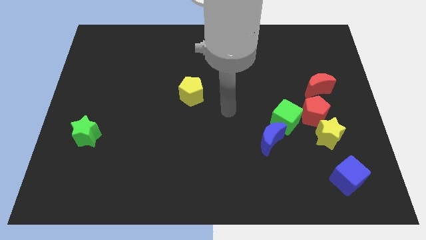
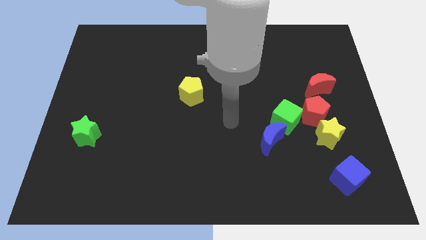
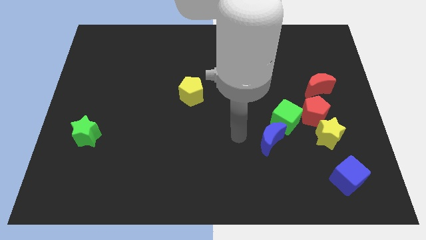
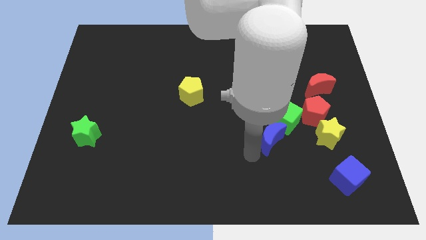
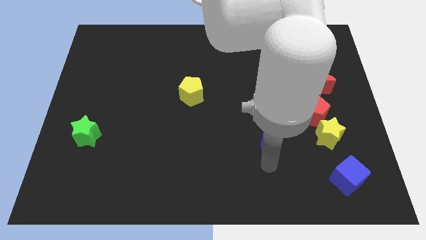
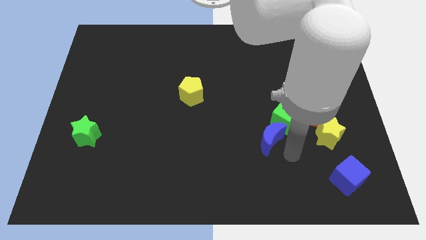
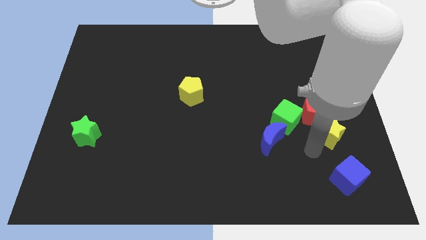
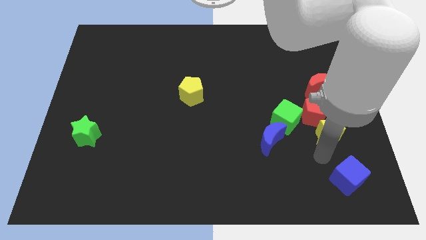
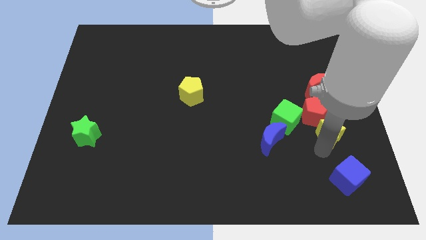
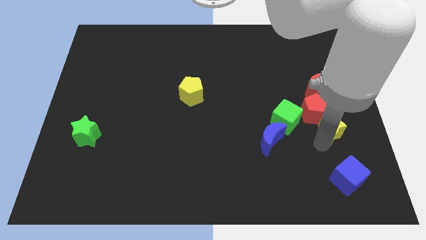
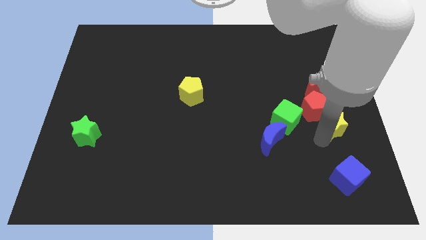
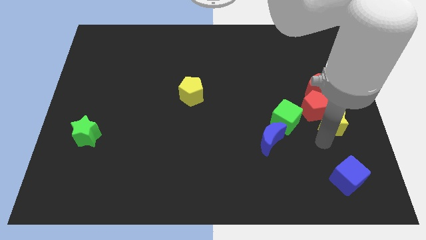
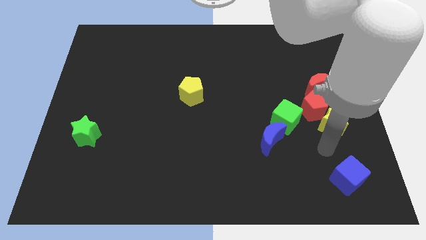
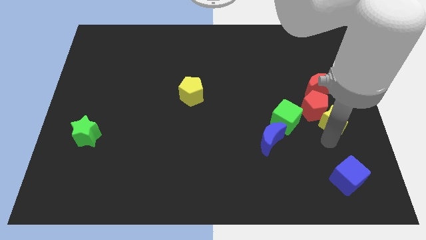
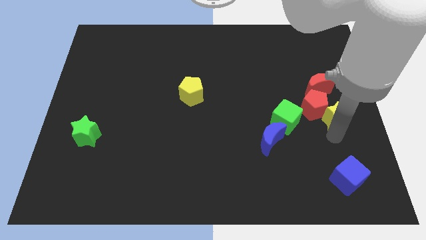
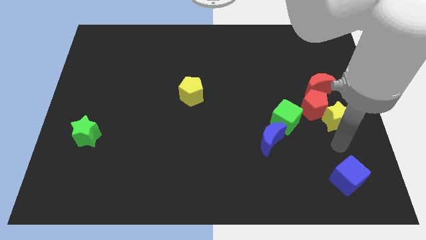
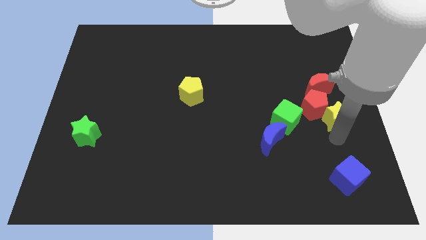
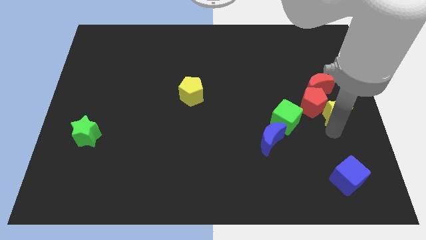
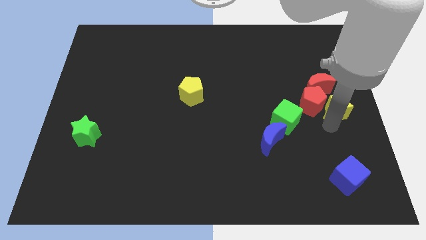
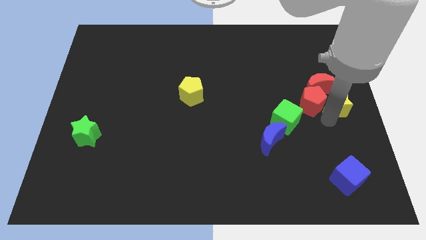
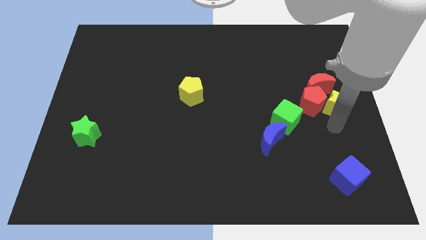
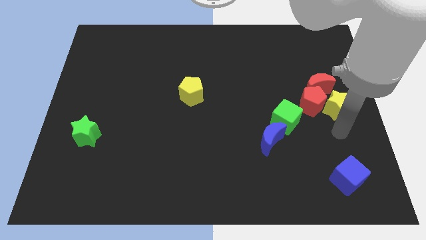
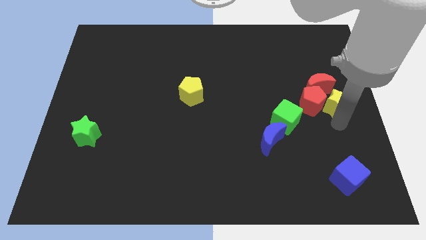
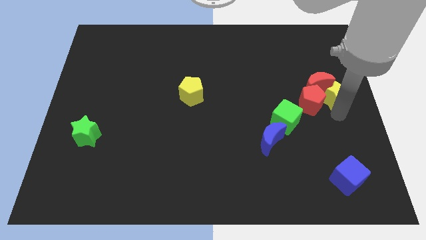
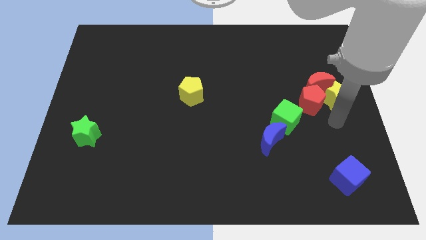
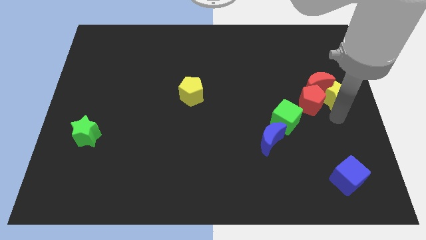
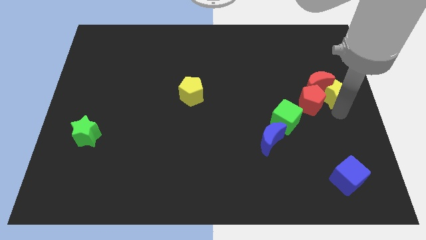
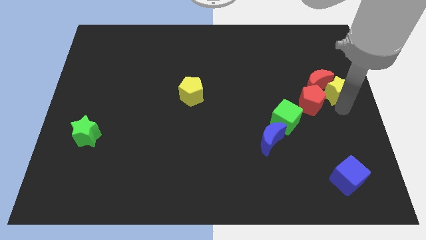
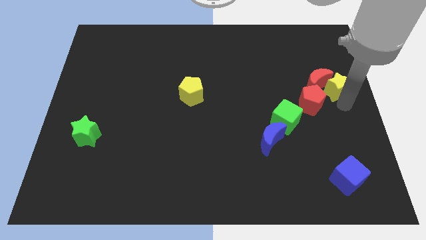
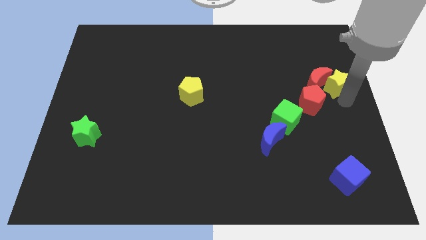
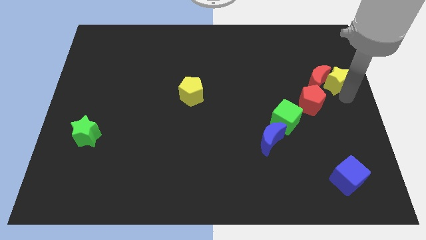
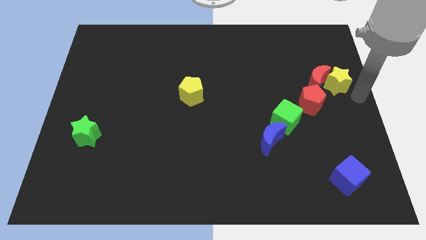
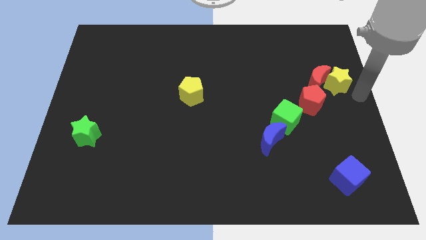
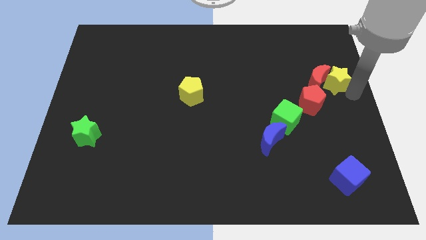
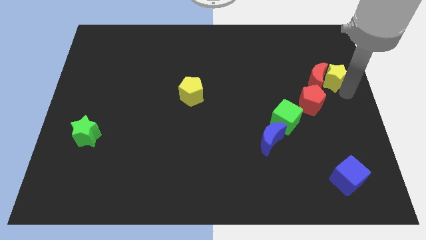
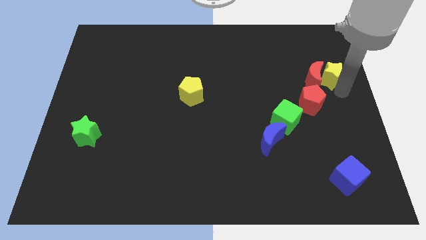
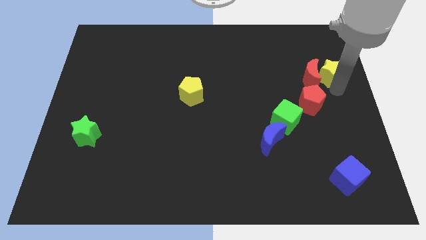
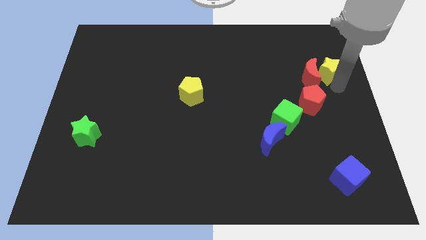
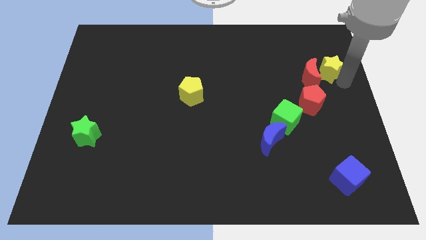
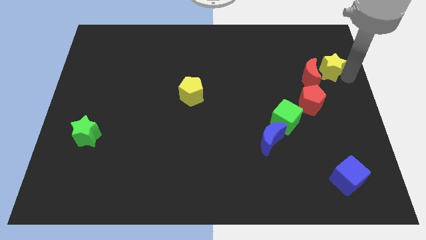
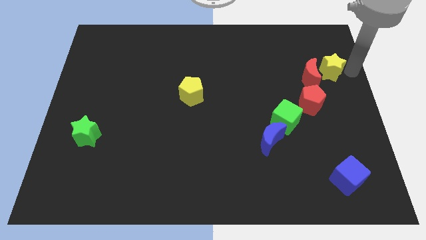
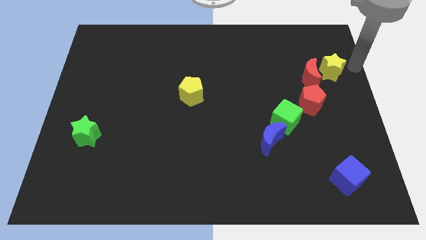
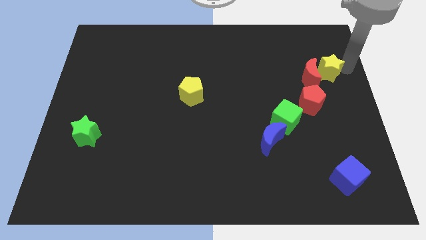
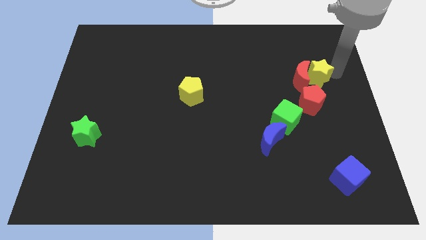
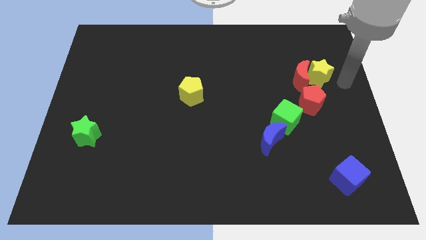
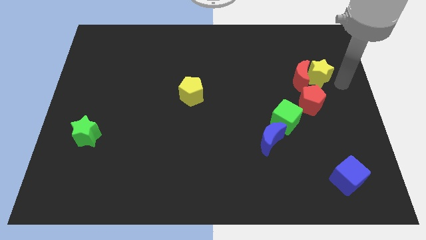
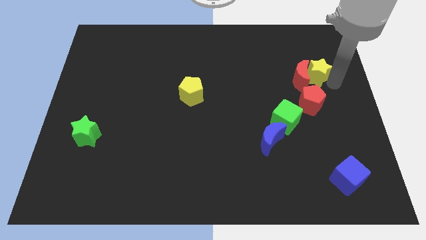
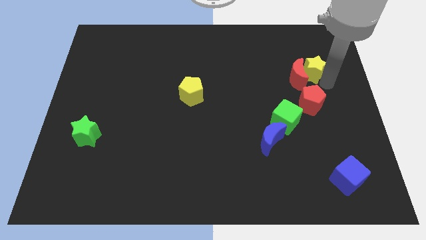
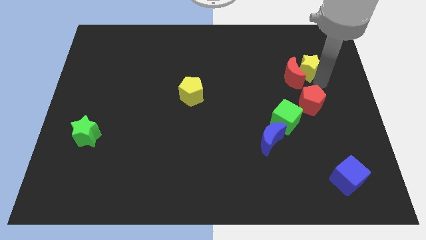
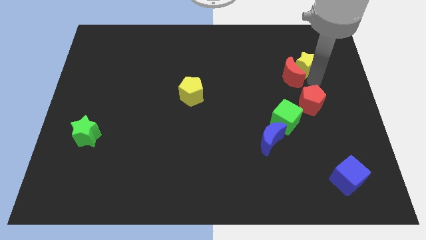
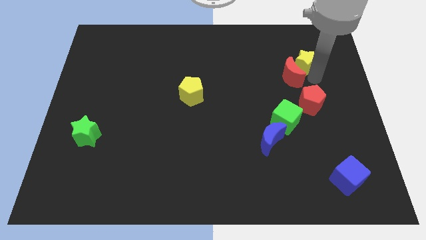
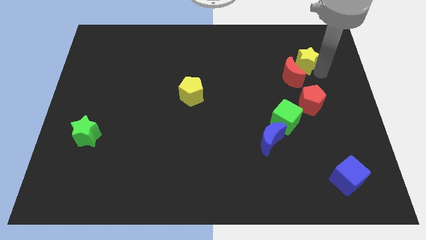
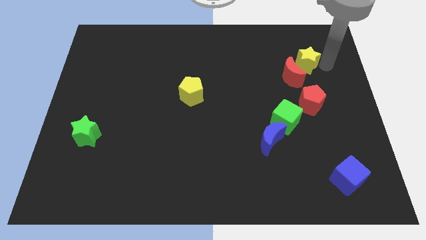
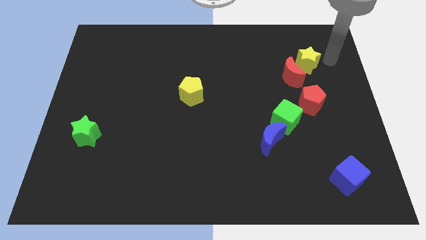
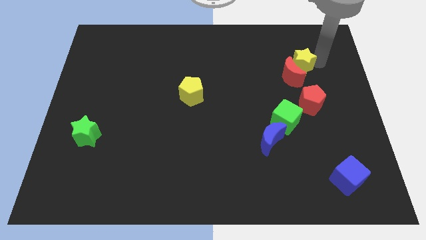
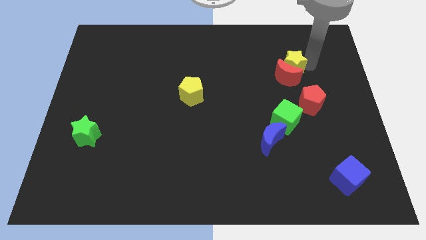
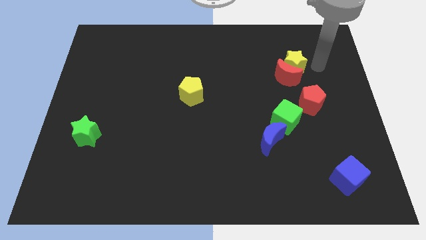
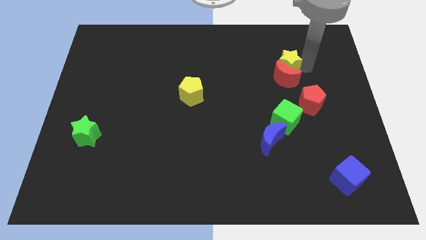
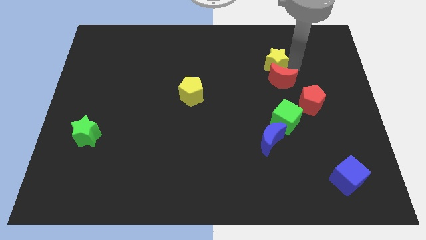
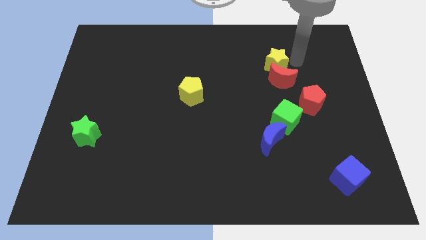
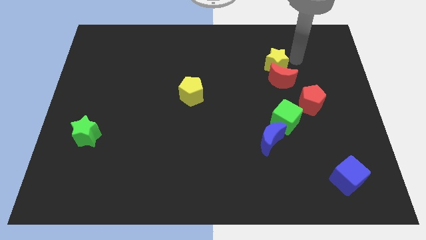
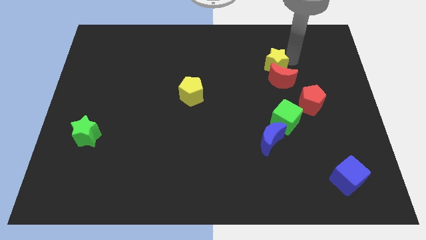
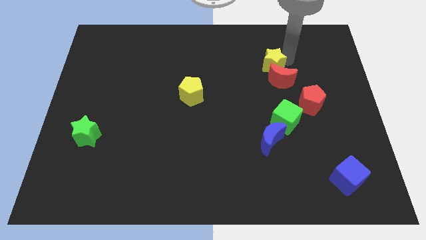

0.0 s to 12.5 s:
move the yellow star up and left diagonally

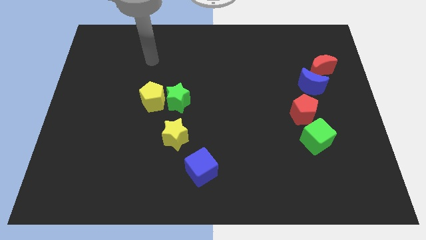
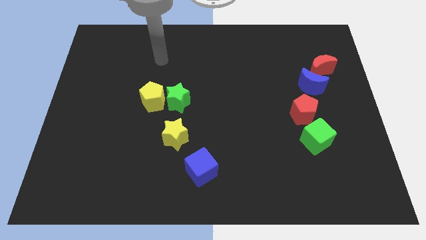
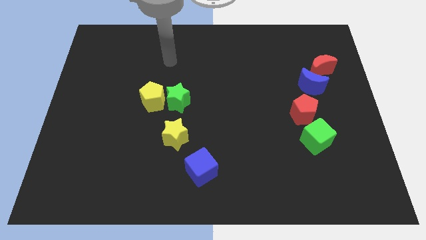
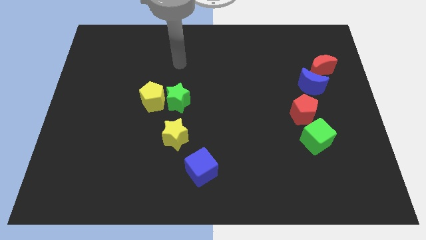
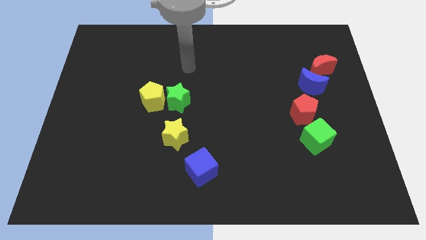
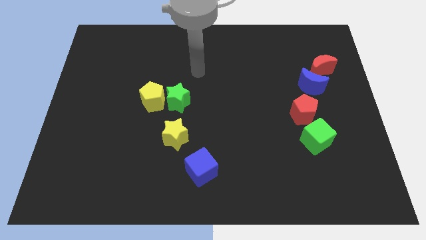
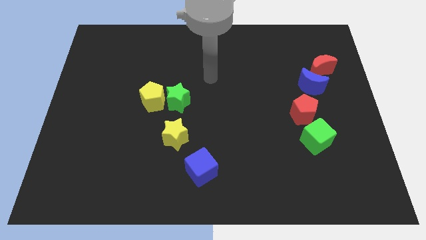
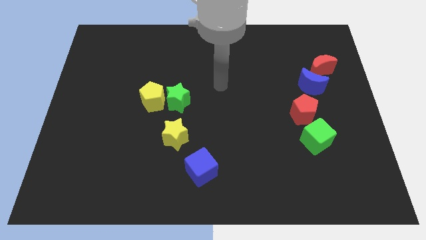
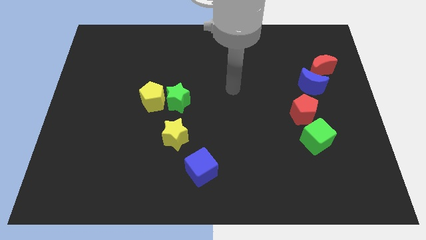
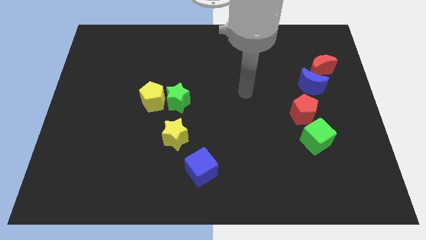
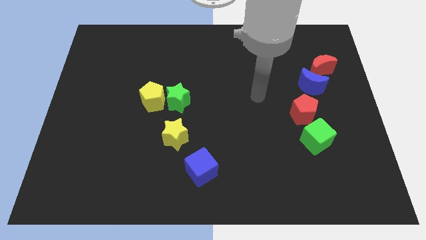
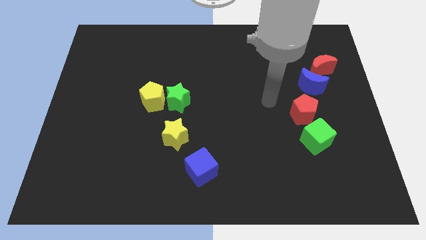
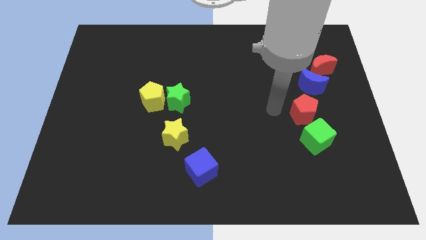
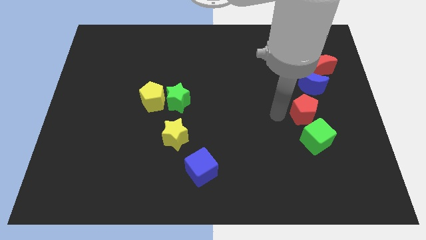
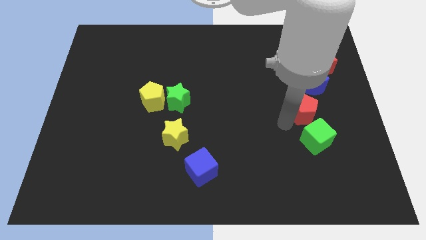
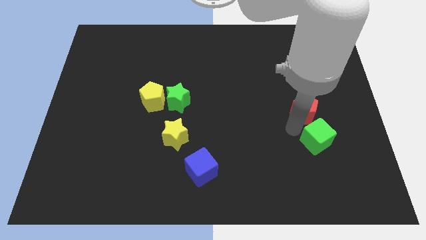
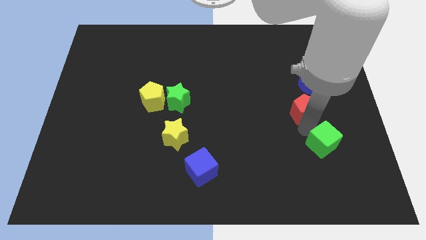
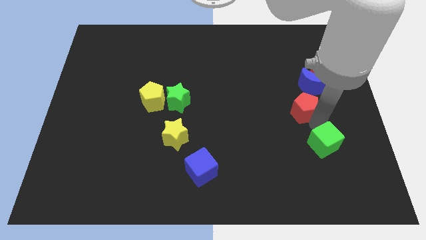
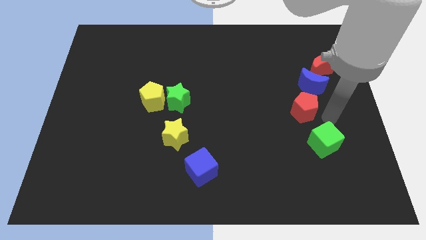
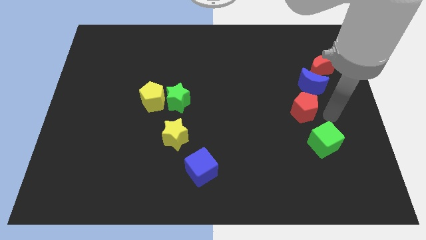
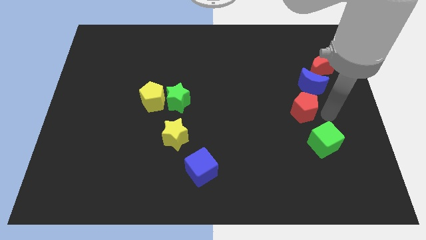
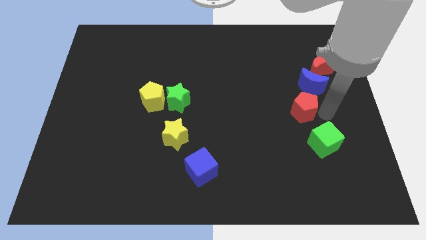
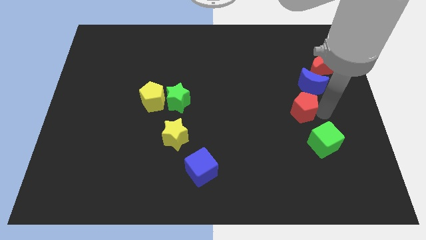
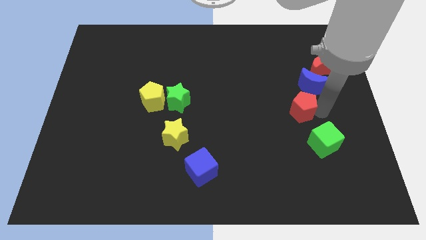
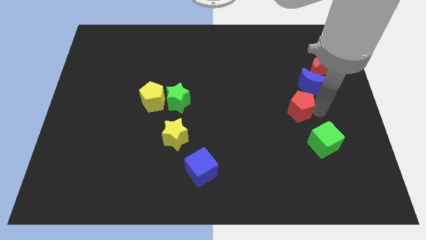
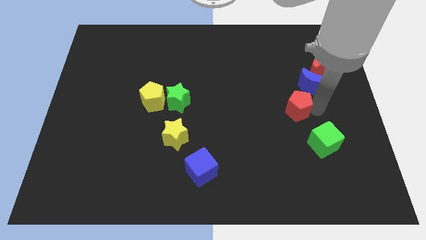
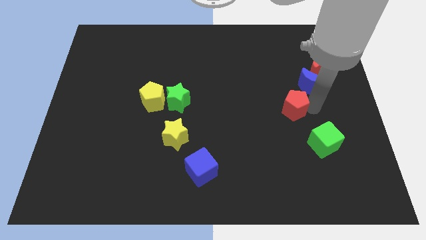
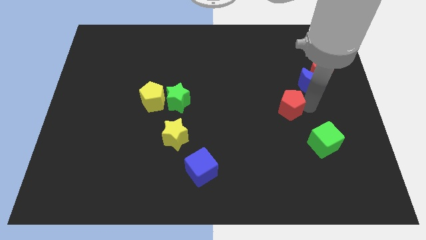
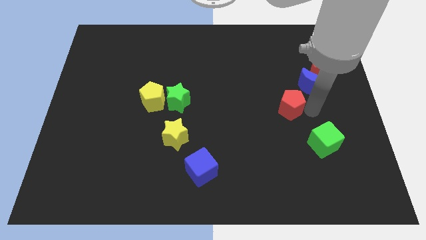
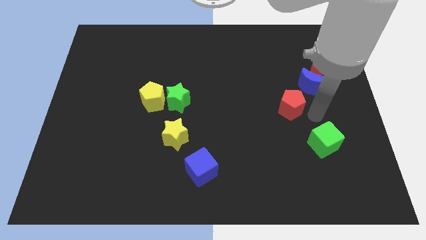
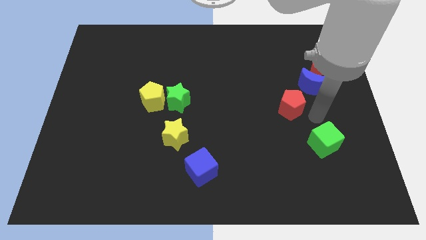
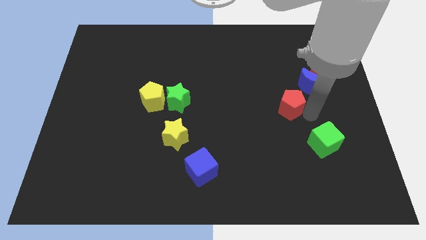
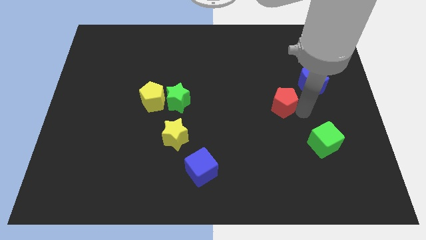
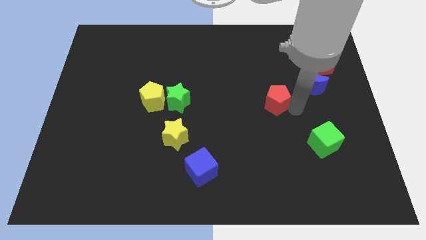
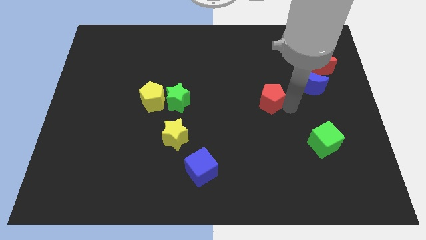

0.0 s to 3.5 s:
slightly push the red pentagon up and left diagonally
